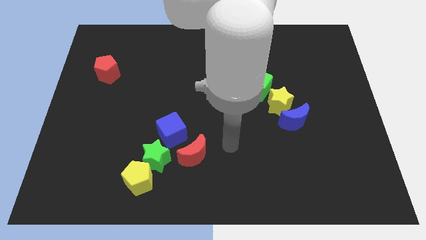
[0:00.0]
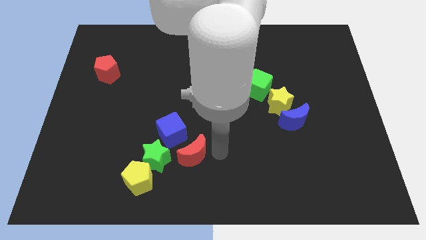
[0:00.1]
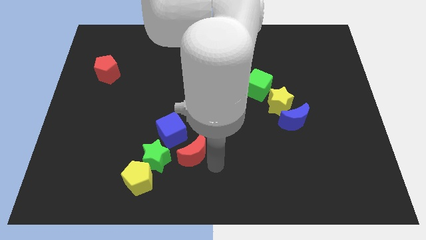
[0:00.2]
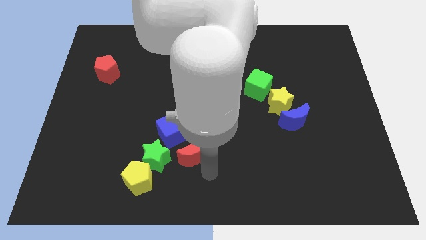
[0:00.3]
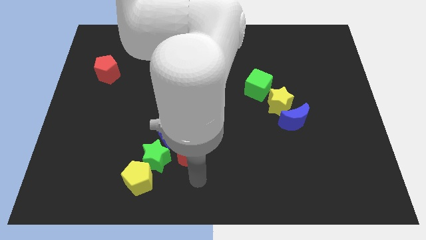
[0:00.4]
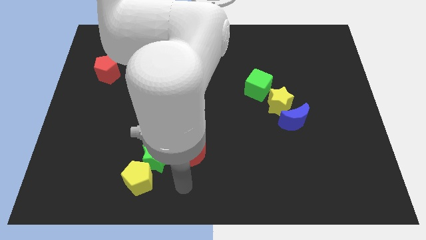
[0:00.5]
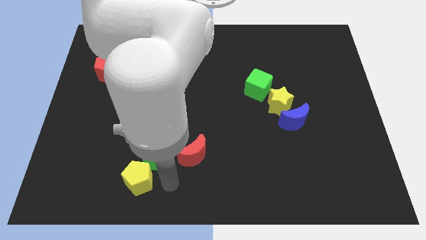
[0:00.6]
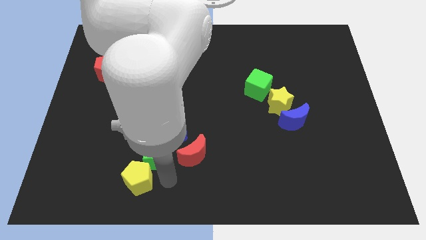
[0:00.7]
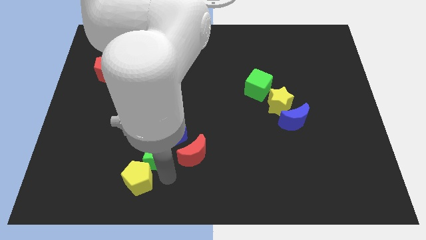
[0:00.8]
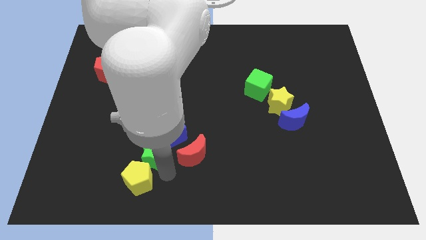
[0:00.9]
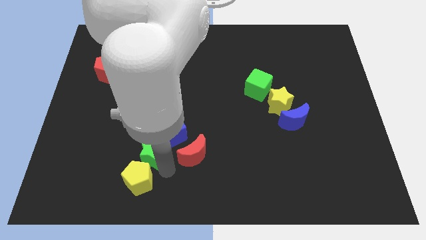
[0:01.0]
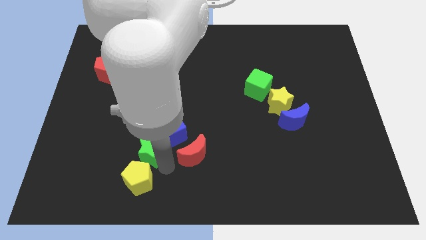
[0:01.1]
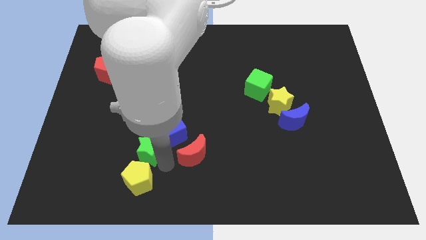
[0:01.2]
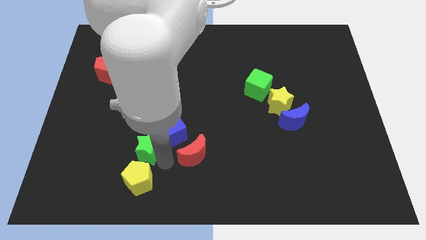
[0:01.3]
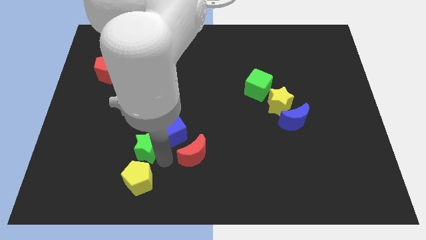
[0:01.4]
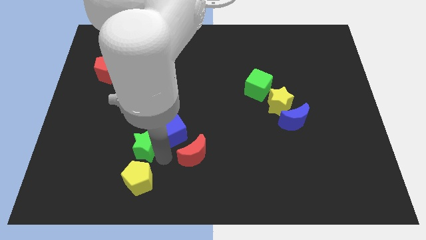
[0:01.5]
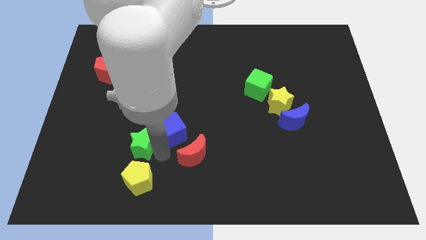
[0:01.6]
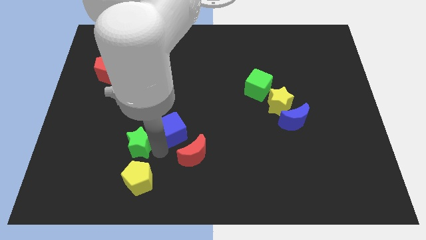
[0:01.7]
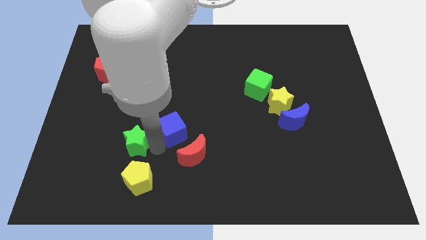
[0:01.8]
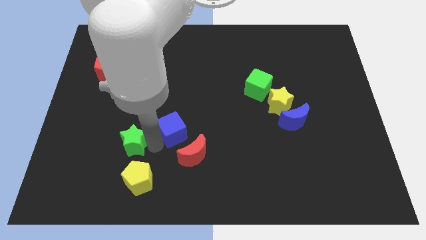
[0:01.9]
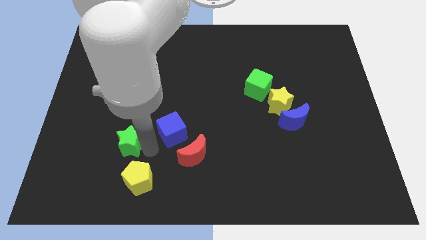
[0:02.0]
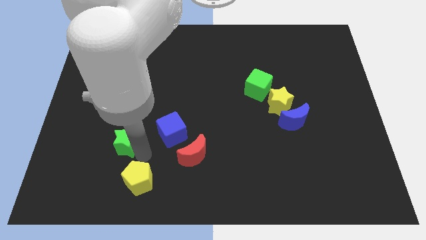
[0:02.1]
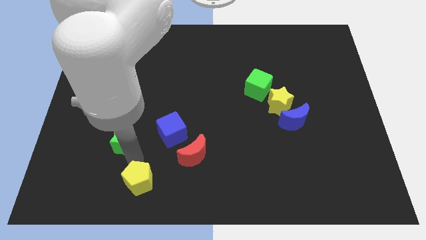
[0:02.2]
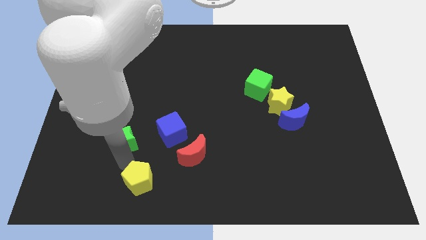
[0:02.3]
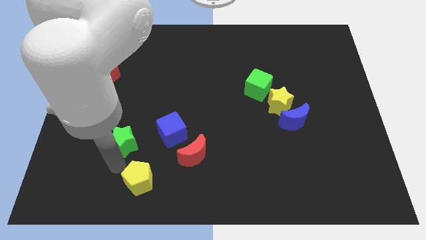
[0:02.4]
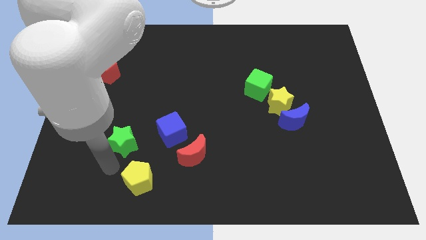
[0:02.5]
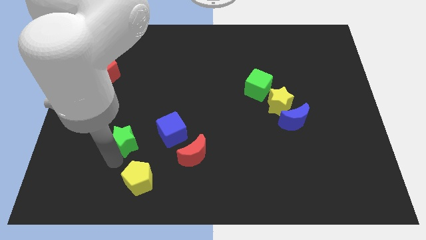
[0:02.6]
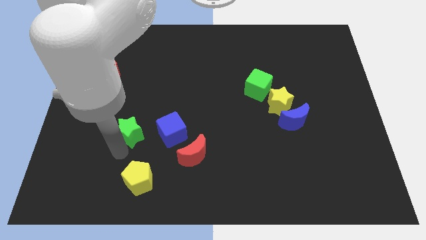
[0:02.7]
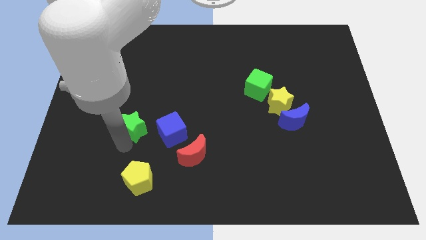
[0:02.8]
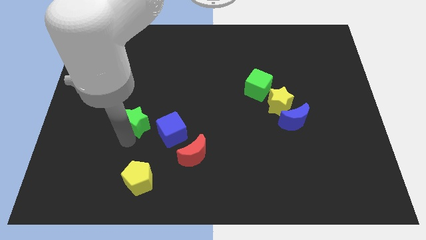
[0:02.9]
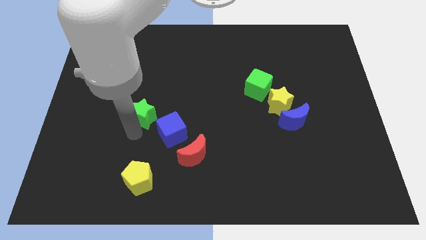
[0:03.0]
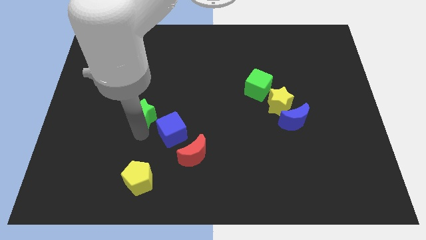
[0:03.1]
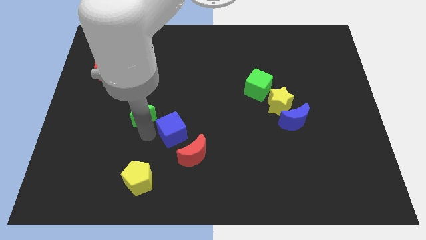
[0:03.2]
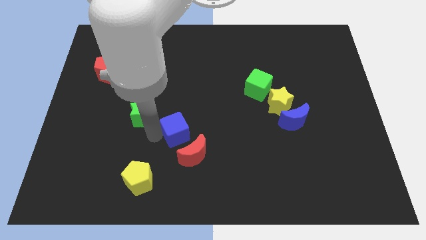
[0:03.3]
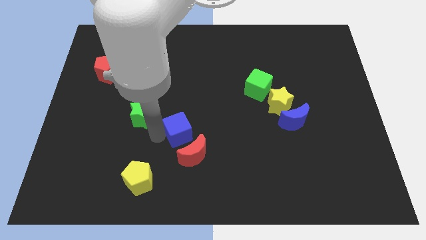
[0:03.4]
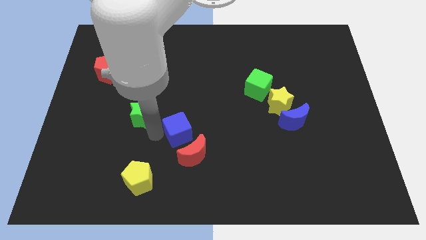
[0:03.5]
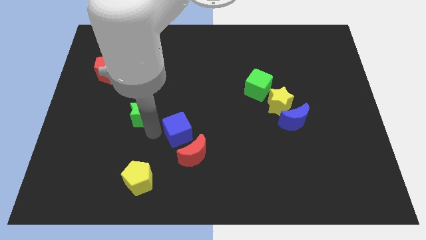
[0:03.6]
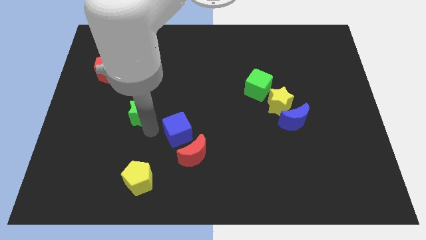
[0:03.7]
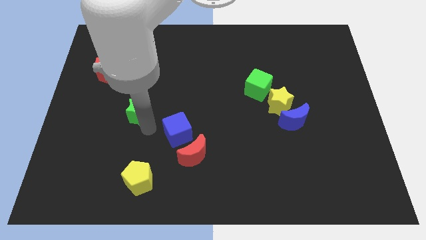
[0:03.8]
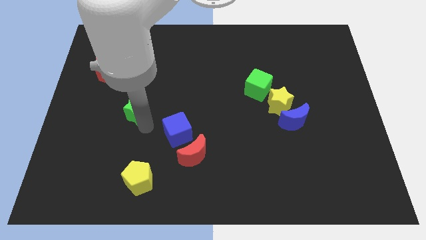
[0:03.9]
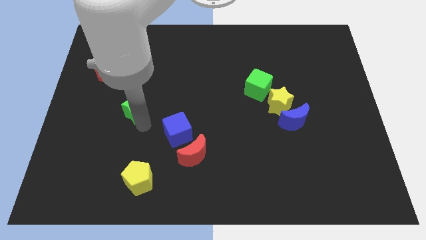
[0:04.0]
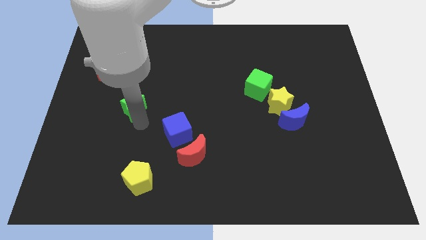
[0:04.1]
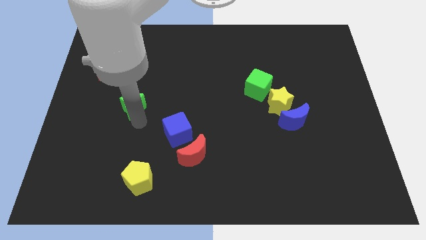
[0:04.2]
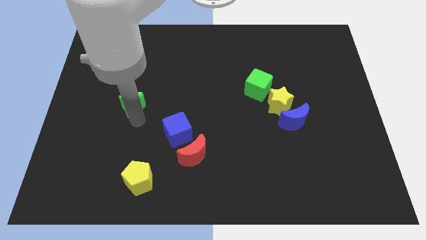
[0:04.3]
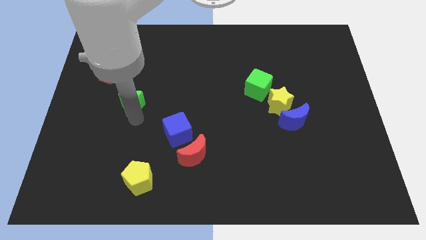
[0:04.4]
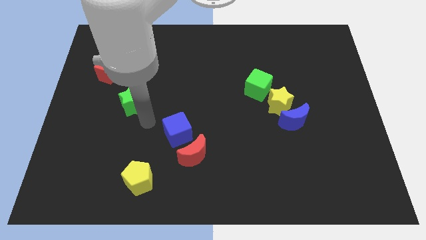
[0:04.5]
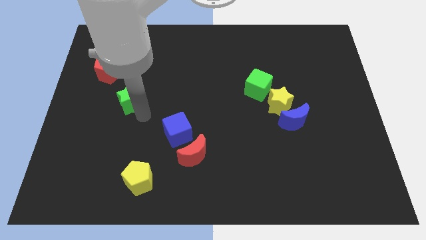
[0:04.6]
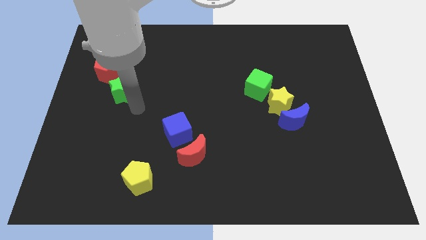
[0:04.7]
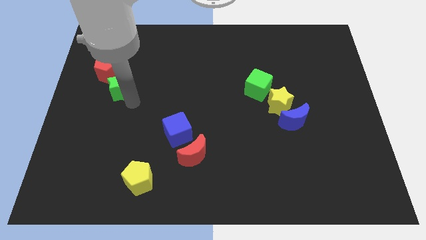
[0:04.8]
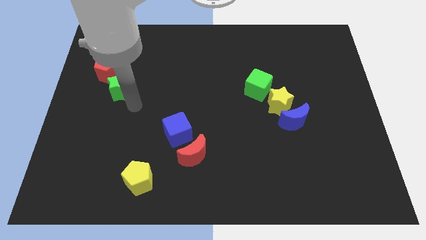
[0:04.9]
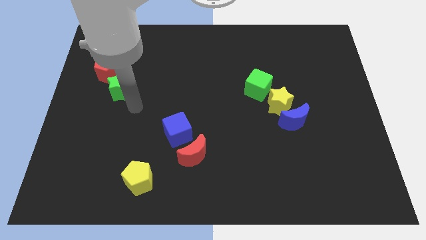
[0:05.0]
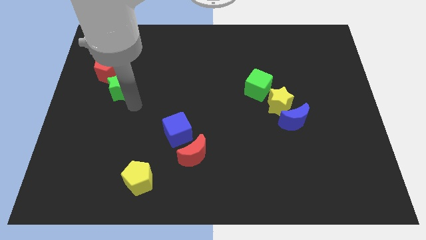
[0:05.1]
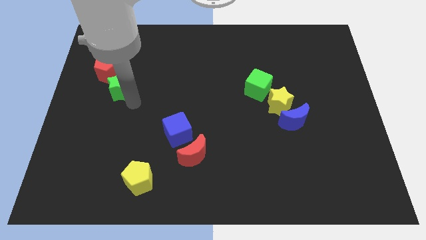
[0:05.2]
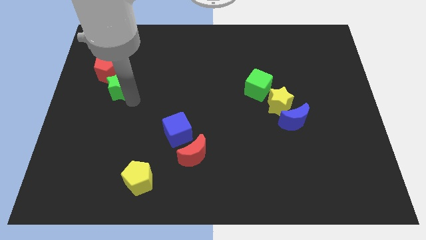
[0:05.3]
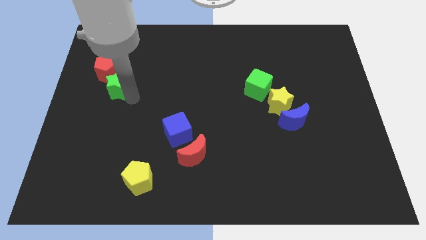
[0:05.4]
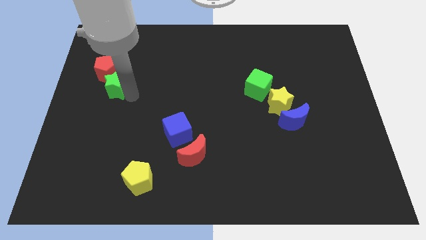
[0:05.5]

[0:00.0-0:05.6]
move the green star towards the red pentagon

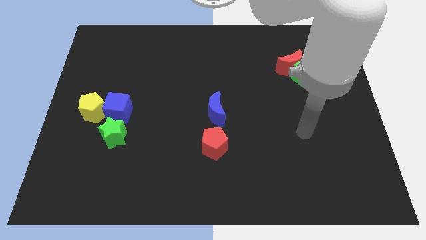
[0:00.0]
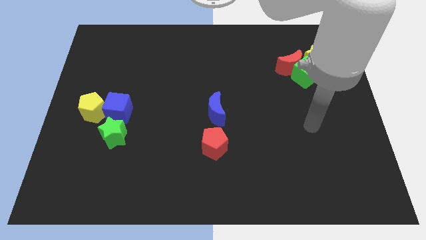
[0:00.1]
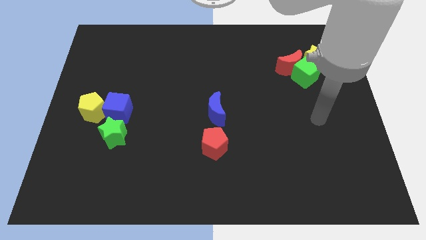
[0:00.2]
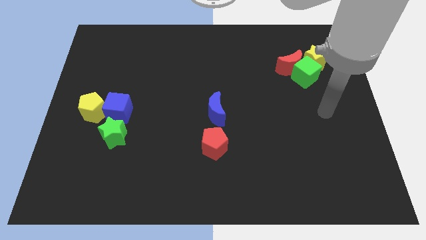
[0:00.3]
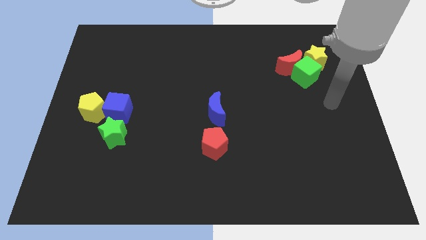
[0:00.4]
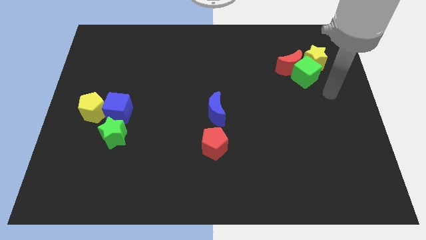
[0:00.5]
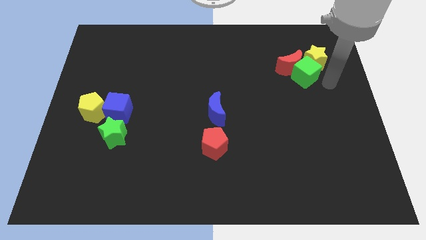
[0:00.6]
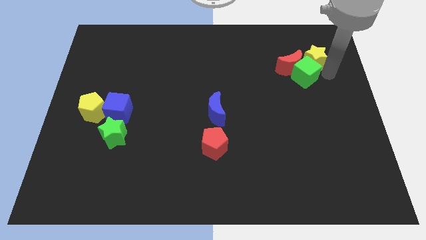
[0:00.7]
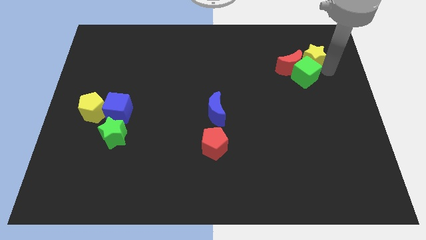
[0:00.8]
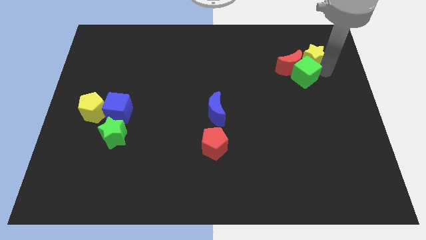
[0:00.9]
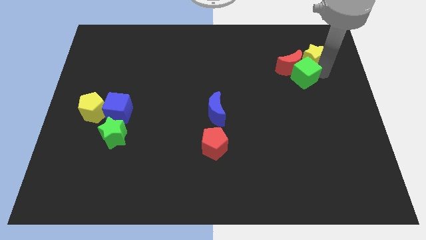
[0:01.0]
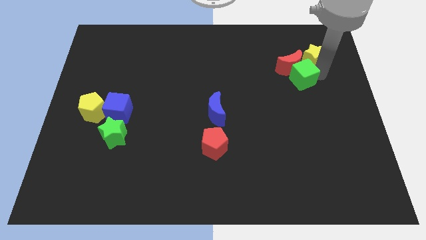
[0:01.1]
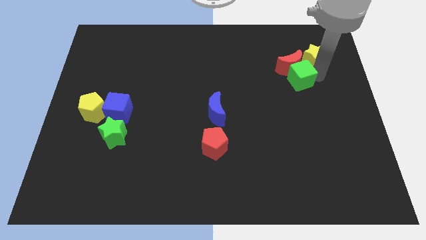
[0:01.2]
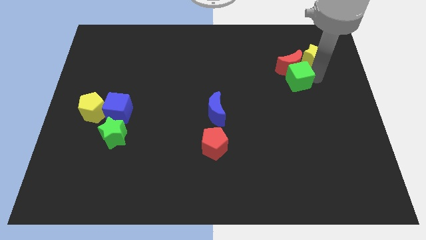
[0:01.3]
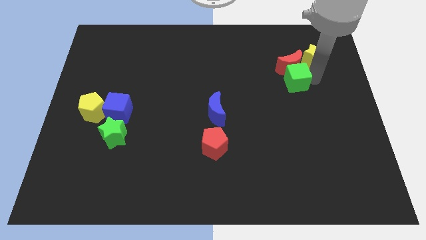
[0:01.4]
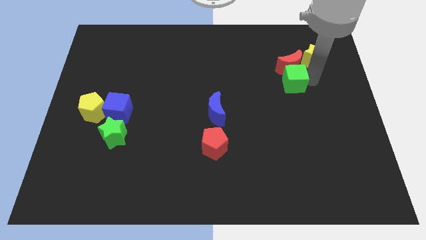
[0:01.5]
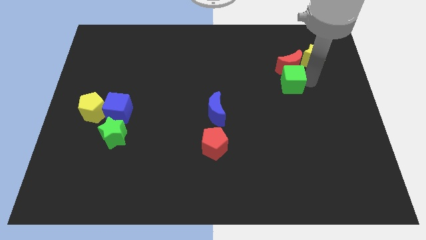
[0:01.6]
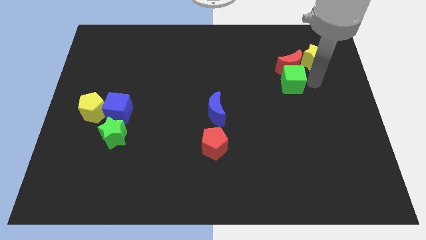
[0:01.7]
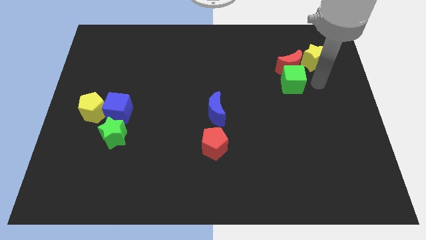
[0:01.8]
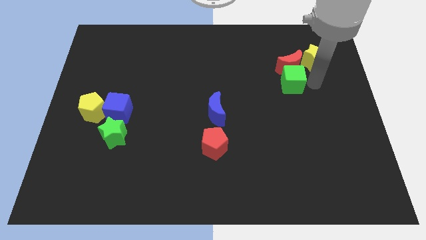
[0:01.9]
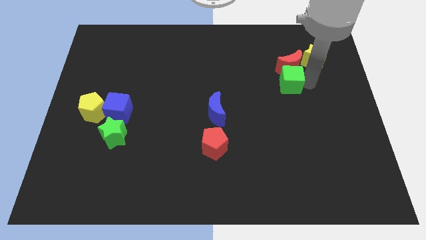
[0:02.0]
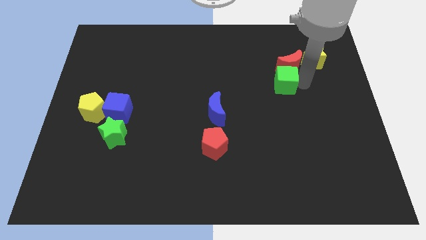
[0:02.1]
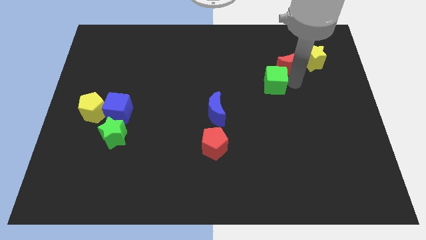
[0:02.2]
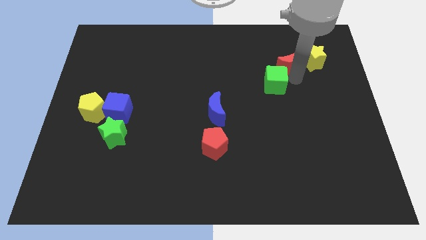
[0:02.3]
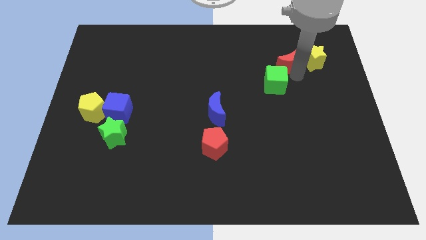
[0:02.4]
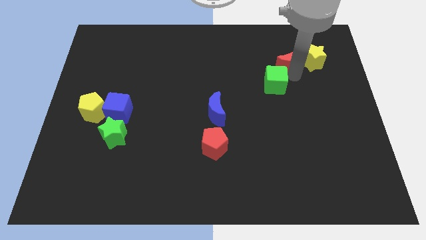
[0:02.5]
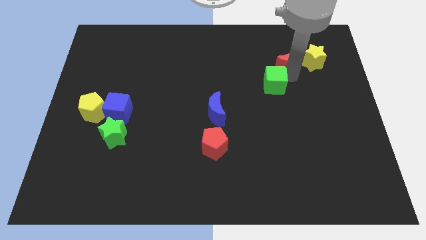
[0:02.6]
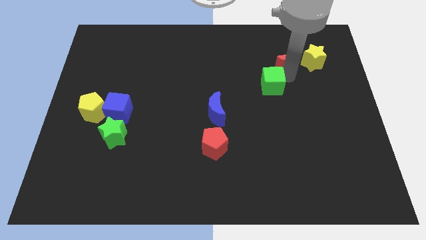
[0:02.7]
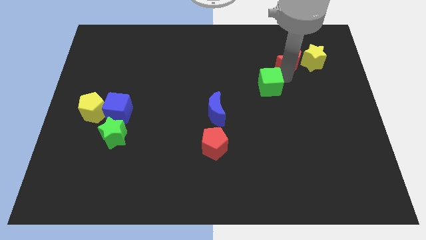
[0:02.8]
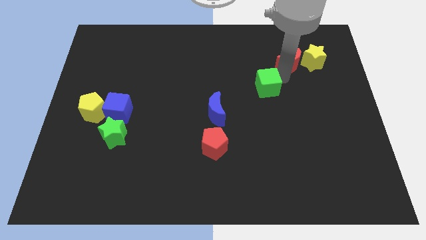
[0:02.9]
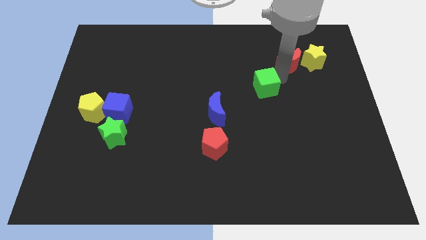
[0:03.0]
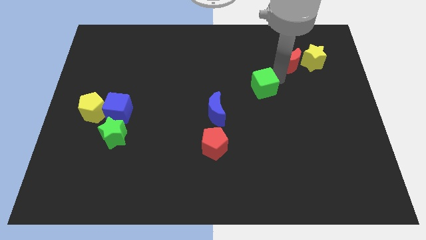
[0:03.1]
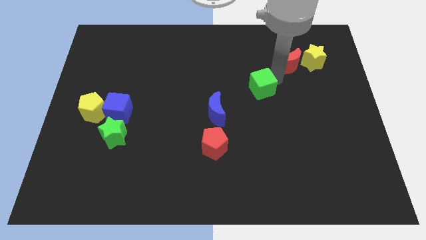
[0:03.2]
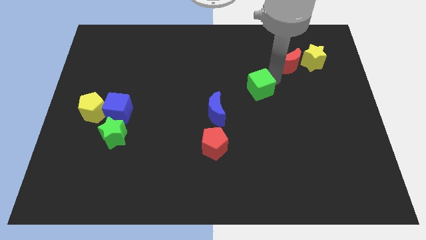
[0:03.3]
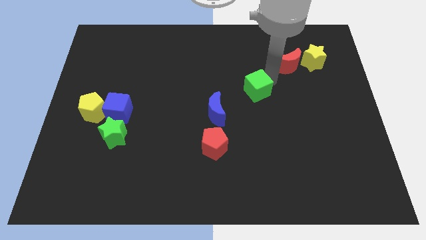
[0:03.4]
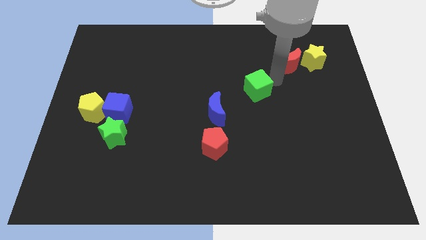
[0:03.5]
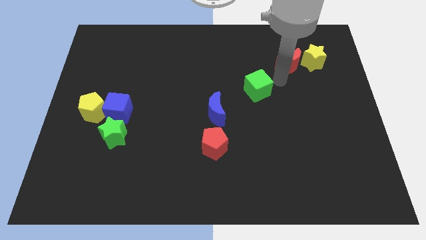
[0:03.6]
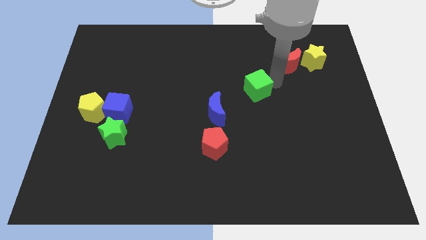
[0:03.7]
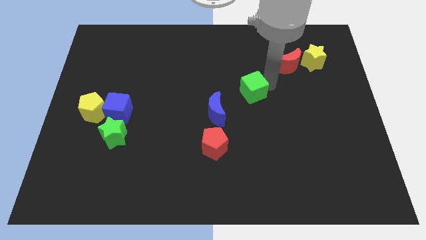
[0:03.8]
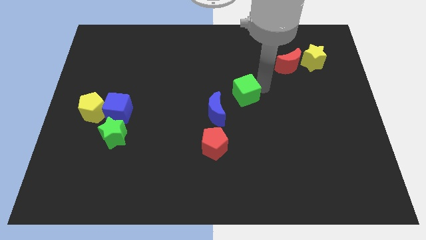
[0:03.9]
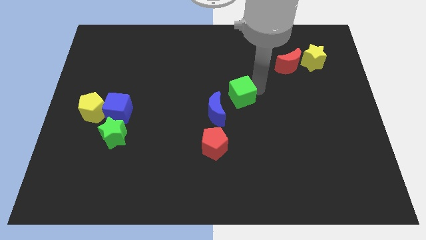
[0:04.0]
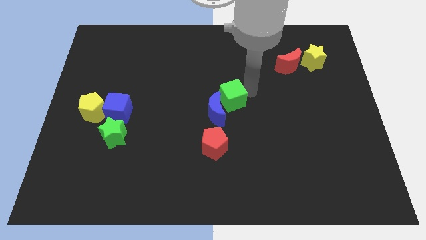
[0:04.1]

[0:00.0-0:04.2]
put the green cube towards the blue moon
